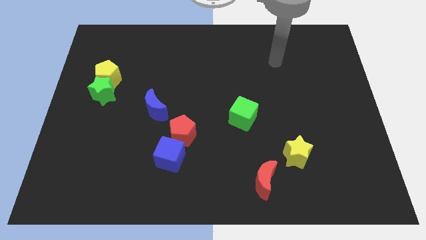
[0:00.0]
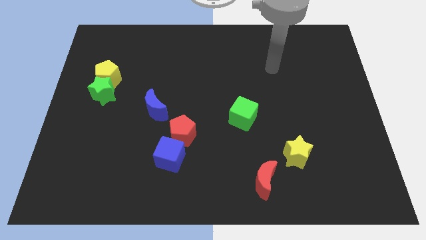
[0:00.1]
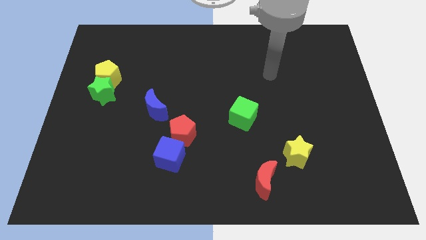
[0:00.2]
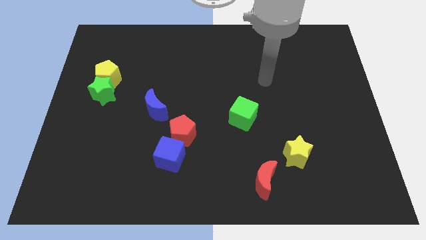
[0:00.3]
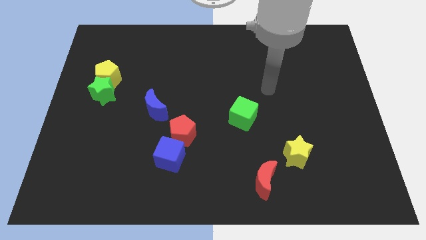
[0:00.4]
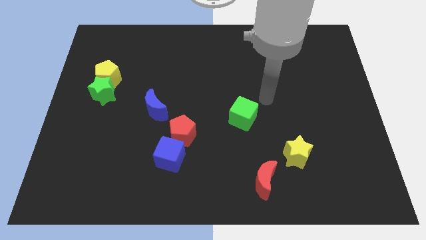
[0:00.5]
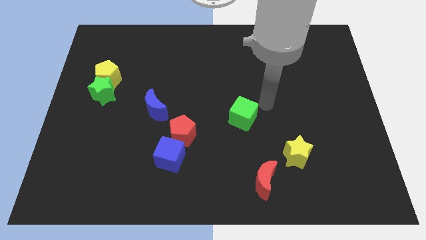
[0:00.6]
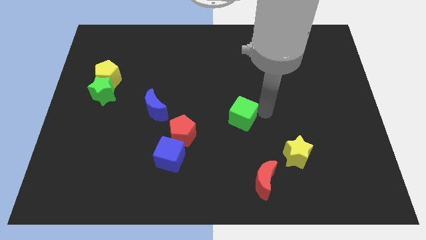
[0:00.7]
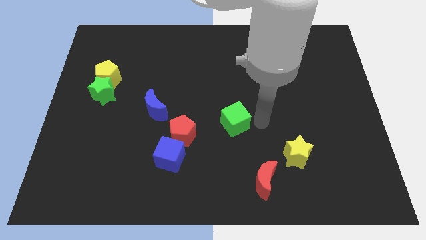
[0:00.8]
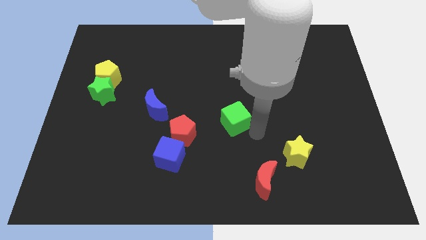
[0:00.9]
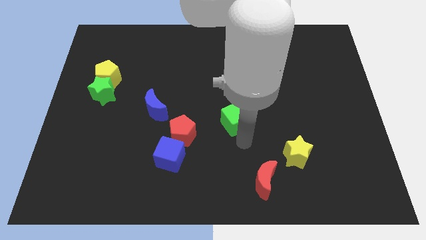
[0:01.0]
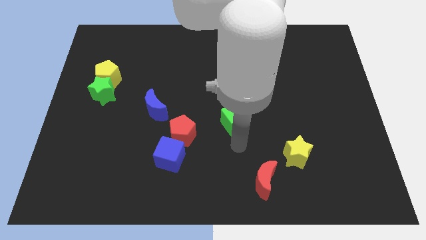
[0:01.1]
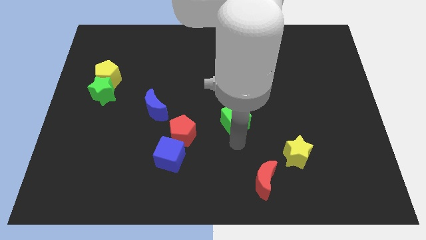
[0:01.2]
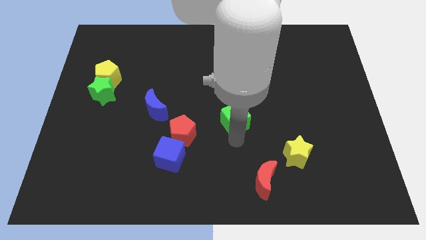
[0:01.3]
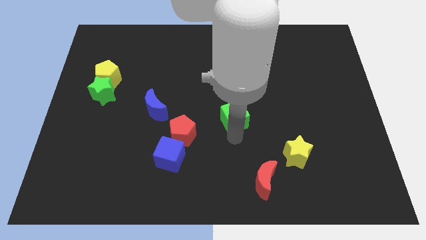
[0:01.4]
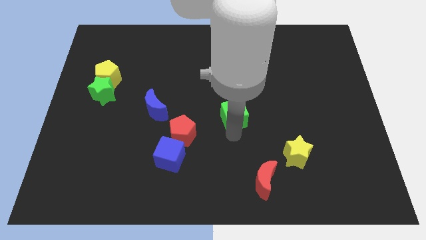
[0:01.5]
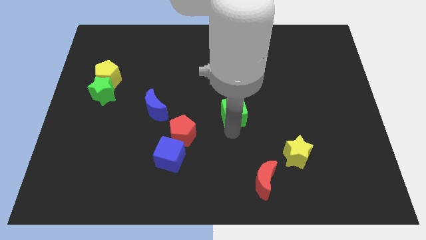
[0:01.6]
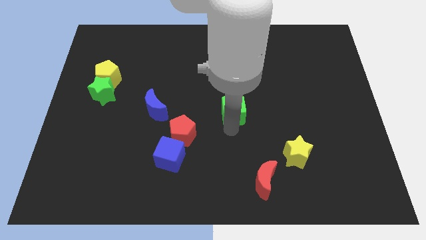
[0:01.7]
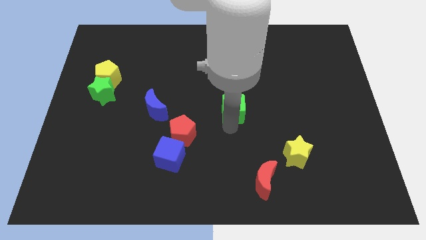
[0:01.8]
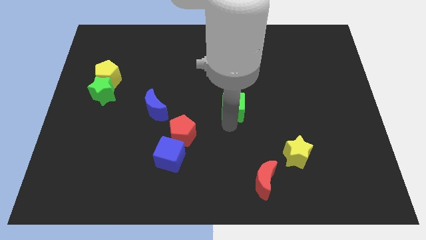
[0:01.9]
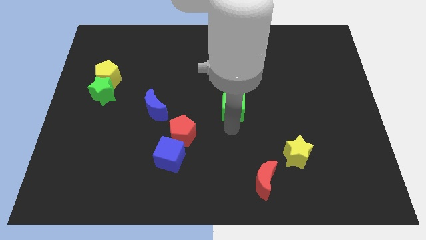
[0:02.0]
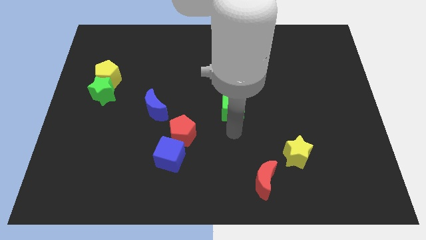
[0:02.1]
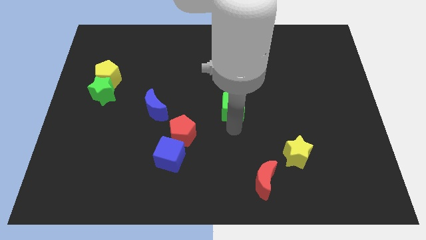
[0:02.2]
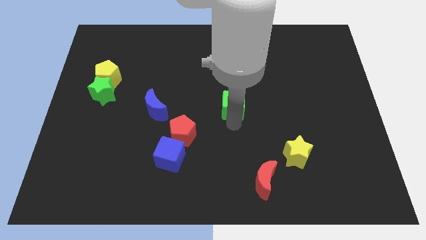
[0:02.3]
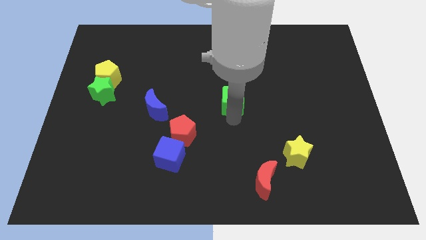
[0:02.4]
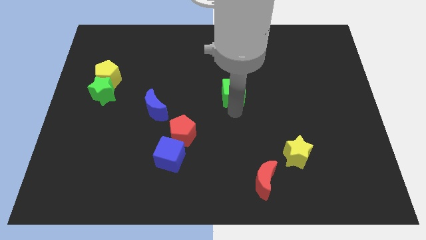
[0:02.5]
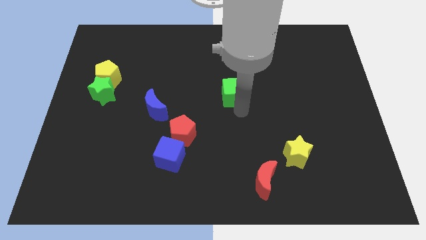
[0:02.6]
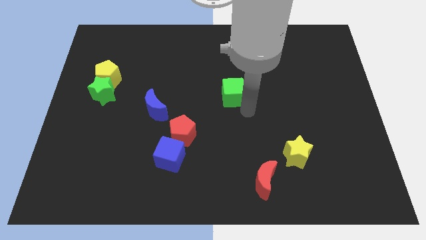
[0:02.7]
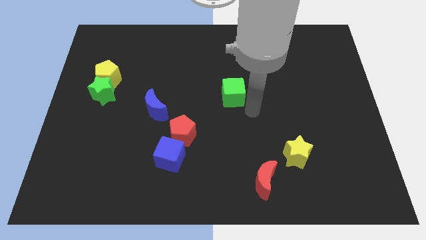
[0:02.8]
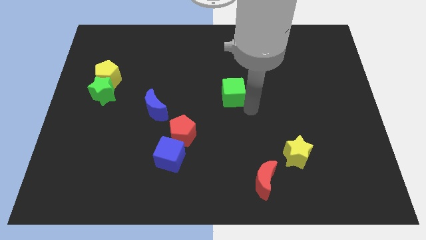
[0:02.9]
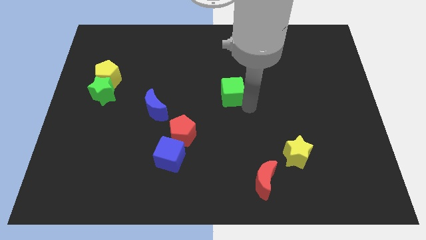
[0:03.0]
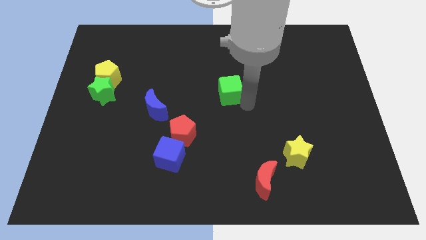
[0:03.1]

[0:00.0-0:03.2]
slide the green cube upwards and left a little

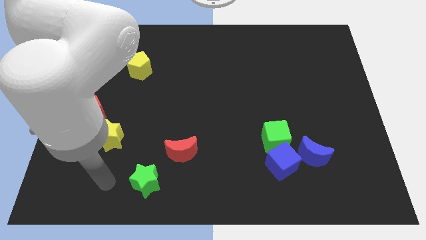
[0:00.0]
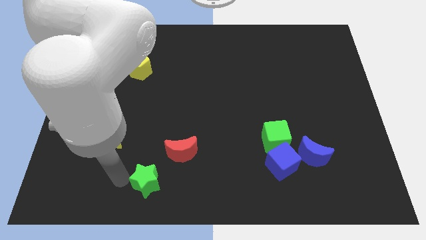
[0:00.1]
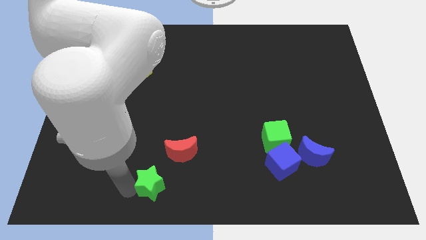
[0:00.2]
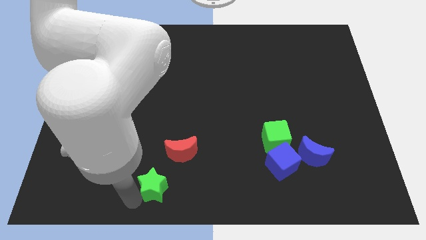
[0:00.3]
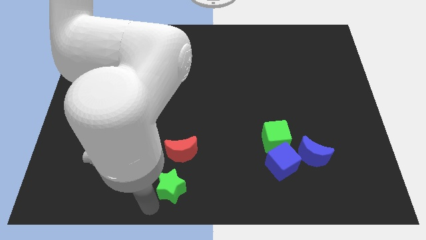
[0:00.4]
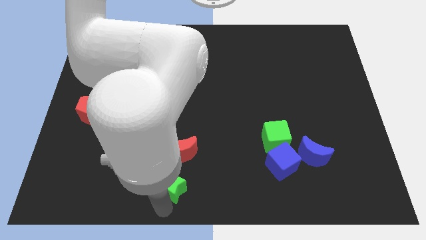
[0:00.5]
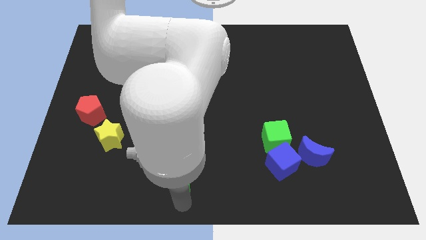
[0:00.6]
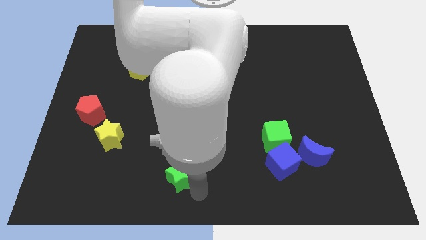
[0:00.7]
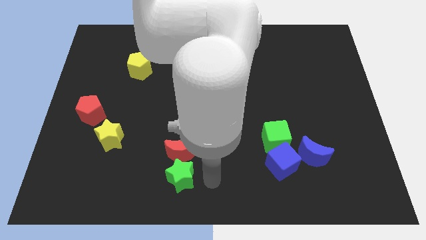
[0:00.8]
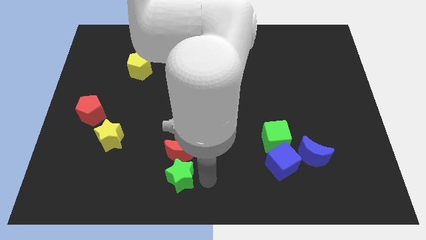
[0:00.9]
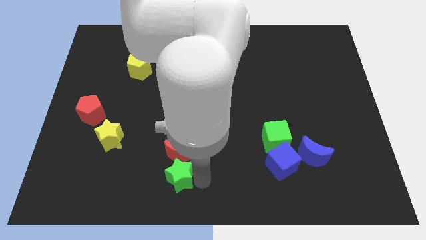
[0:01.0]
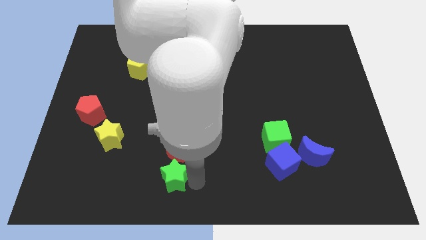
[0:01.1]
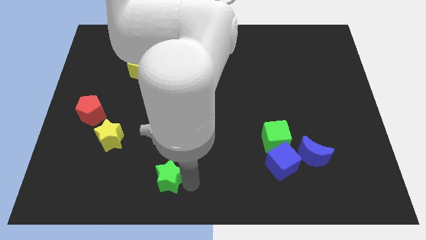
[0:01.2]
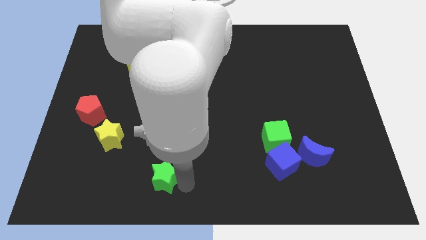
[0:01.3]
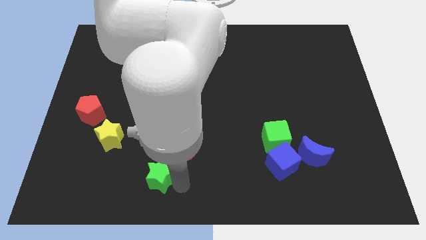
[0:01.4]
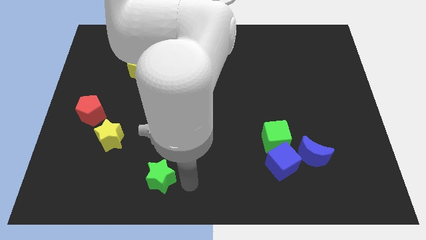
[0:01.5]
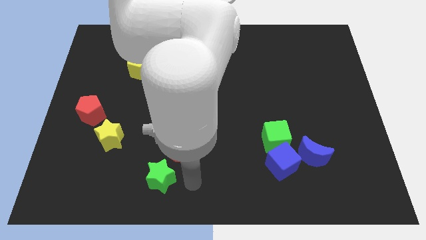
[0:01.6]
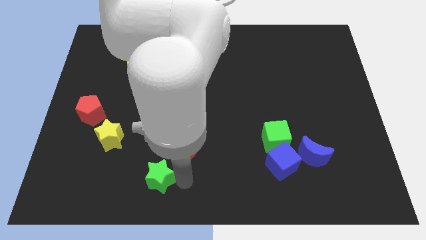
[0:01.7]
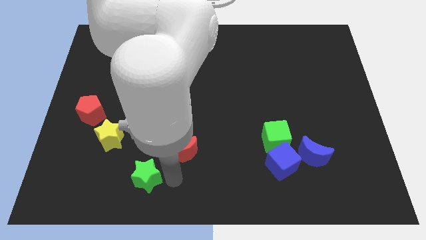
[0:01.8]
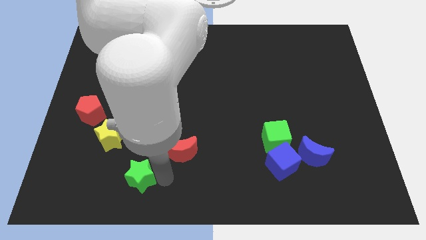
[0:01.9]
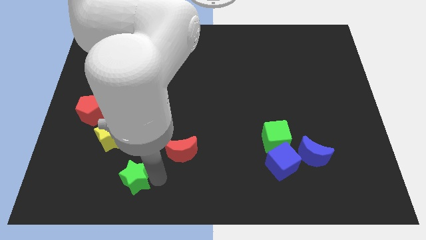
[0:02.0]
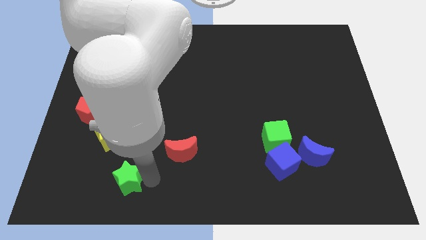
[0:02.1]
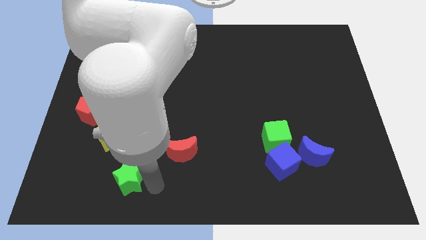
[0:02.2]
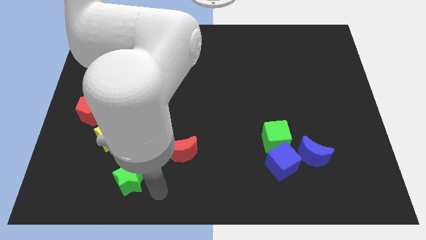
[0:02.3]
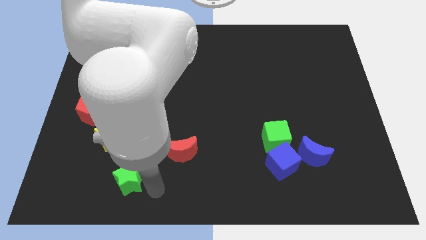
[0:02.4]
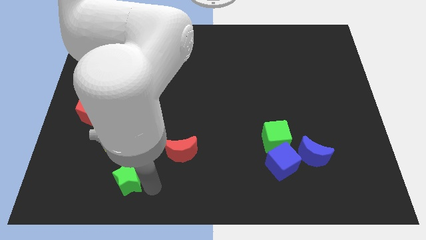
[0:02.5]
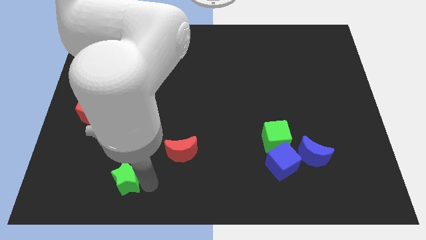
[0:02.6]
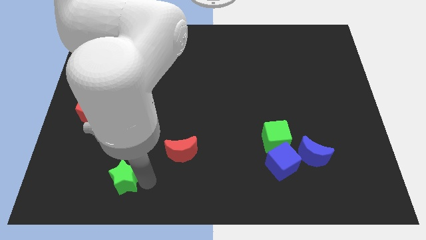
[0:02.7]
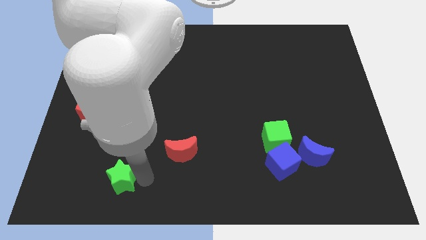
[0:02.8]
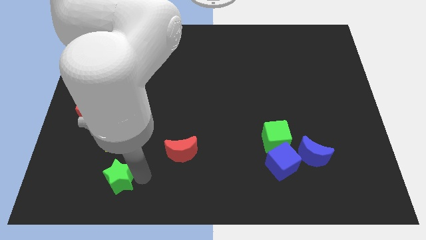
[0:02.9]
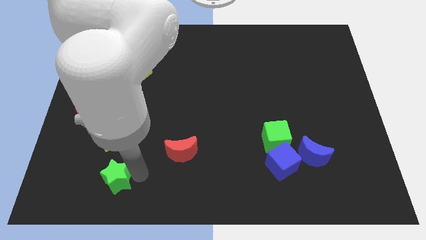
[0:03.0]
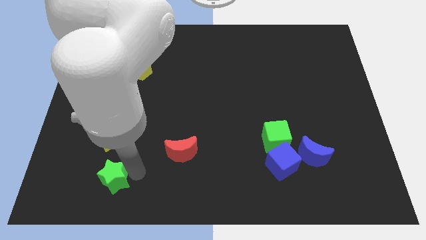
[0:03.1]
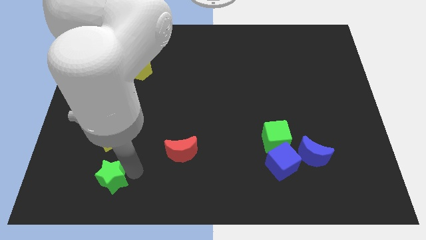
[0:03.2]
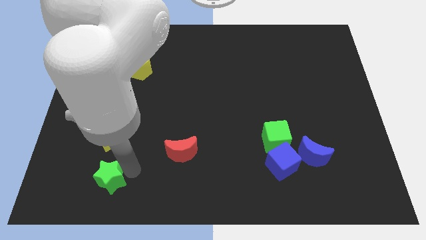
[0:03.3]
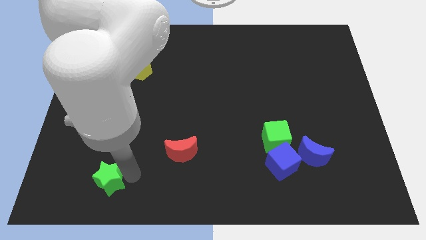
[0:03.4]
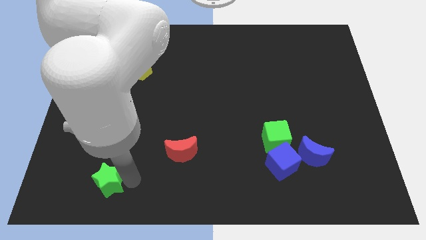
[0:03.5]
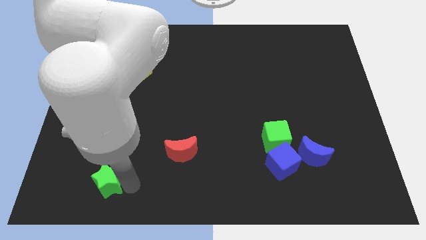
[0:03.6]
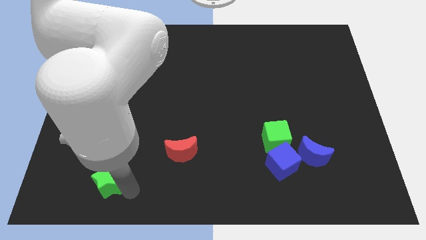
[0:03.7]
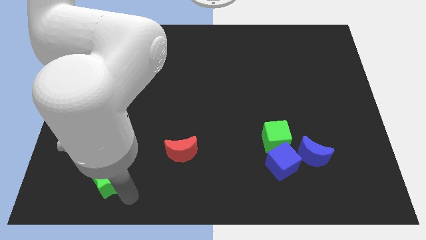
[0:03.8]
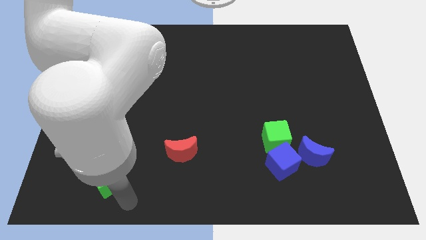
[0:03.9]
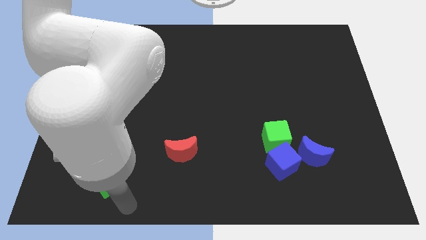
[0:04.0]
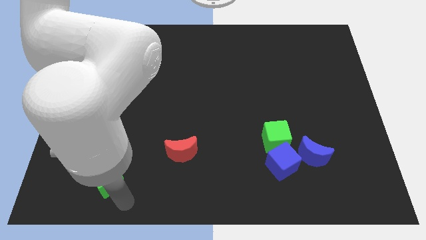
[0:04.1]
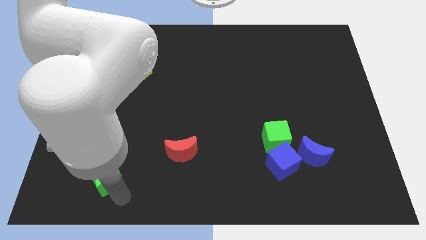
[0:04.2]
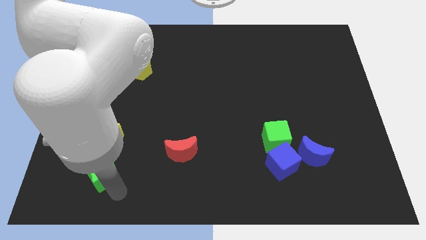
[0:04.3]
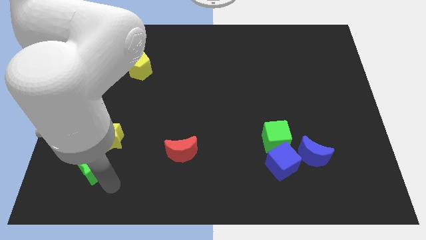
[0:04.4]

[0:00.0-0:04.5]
slide the green star a little upwards and left diagonally
